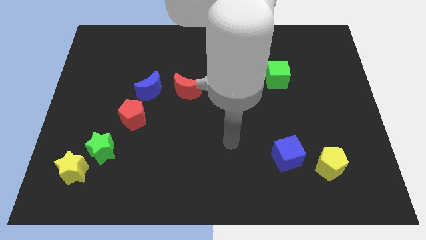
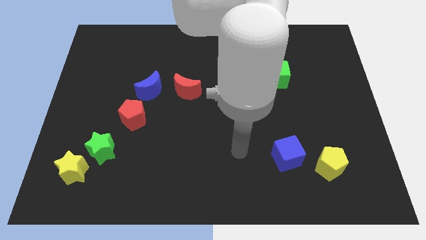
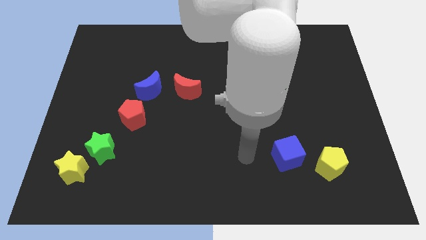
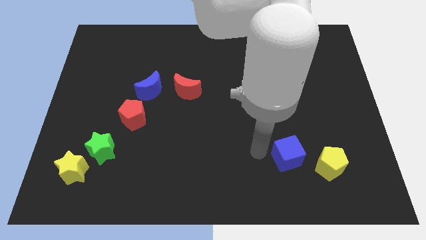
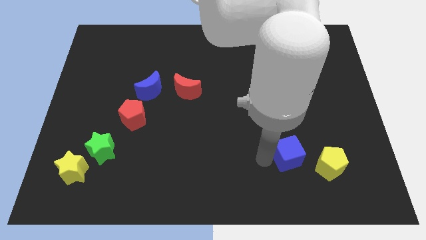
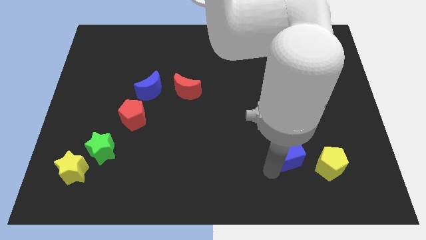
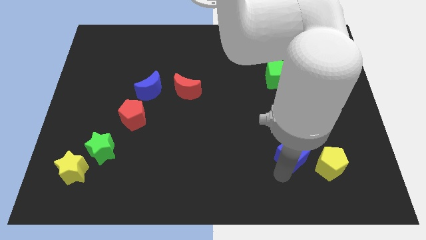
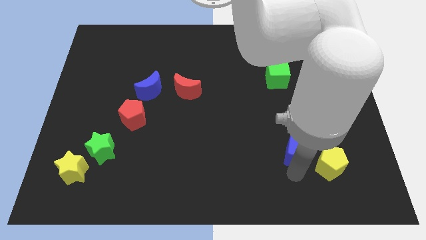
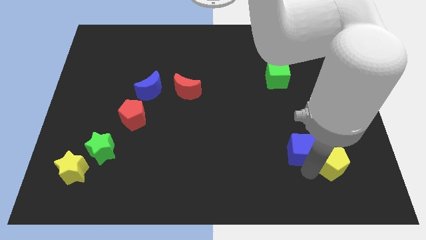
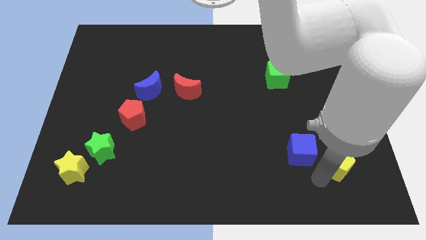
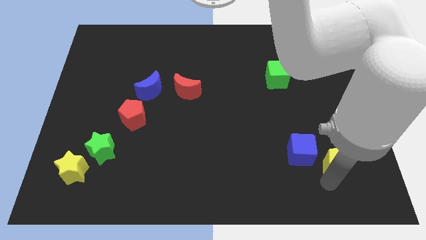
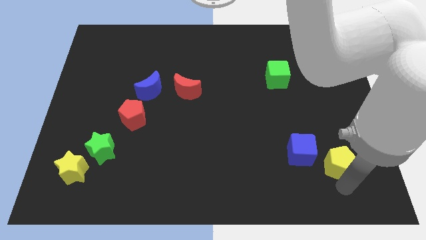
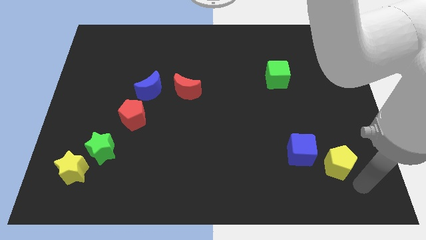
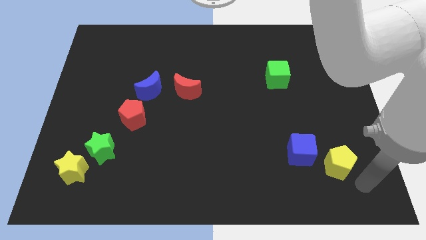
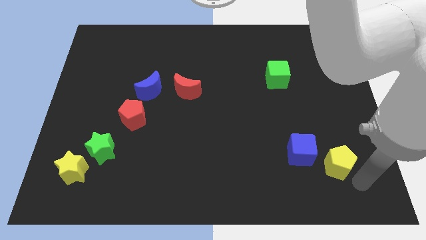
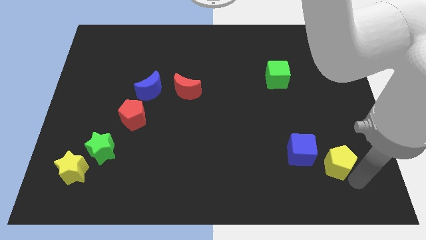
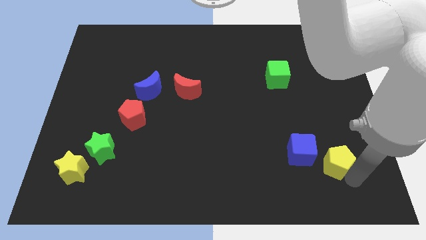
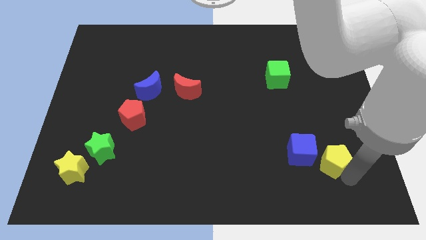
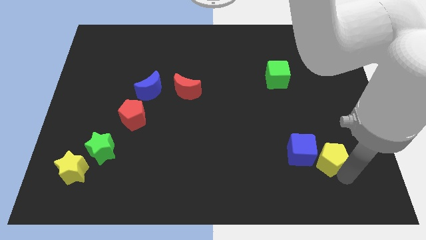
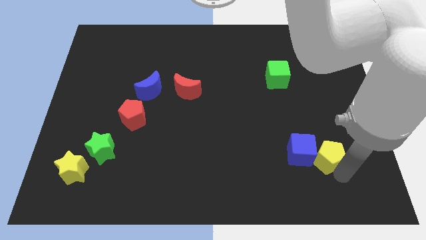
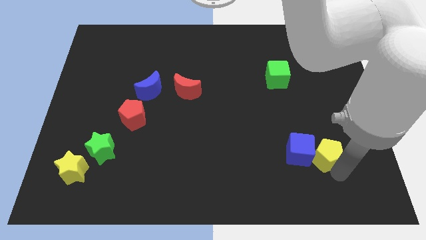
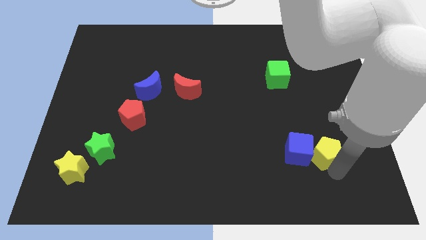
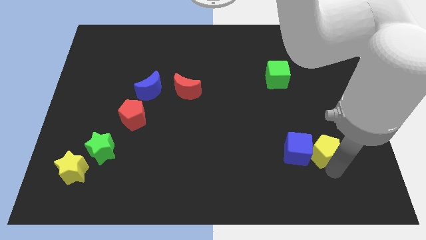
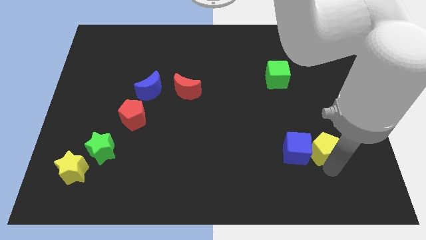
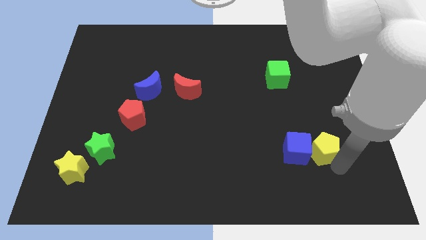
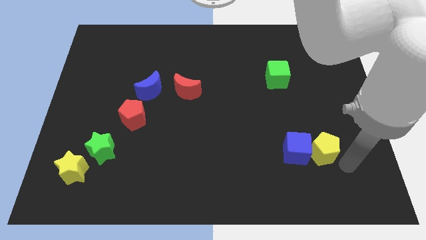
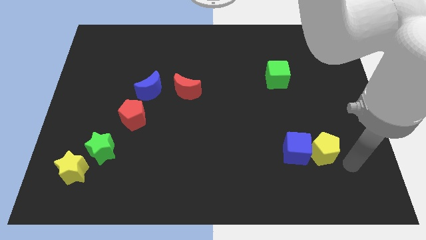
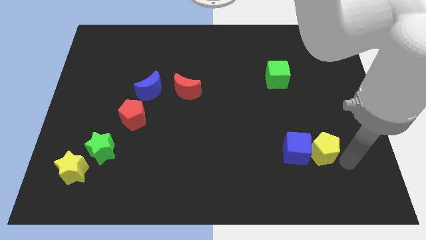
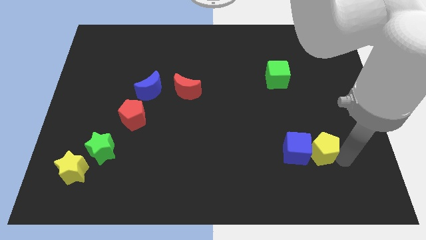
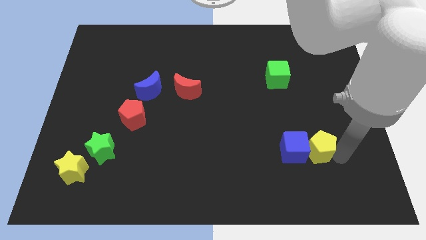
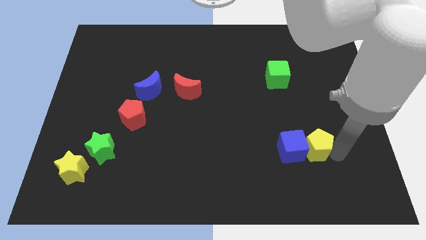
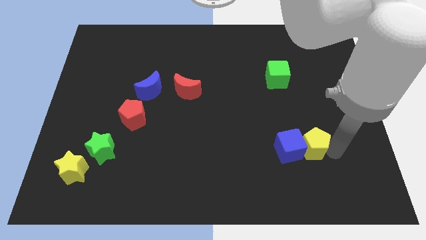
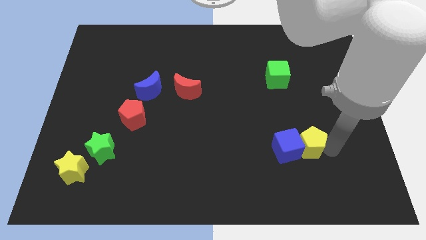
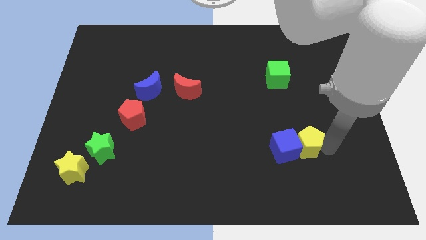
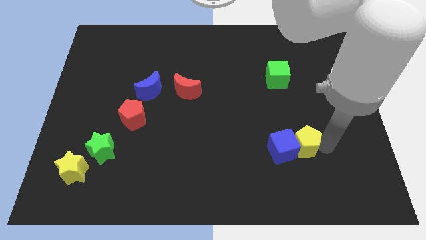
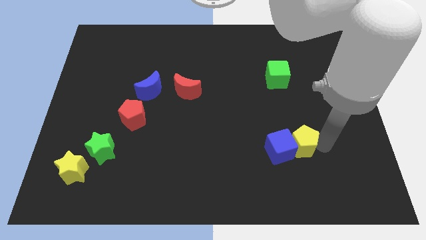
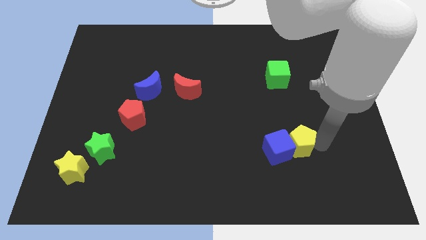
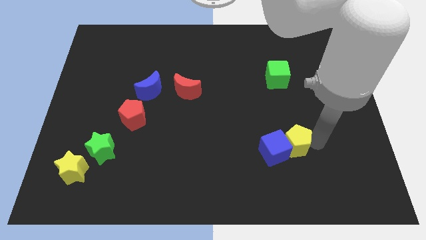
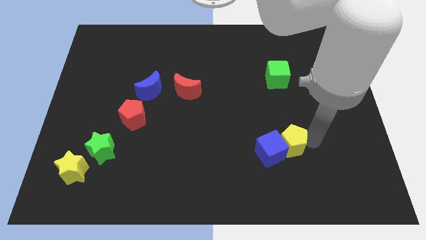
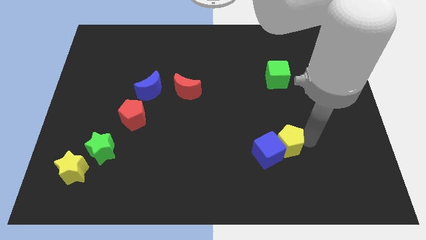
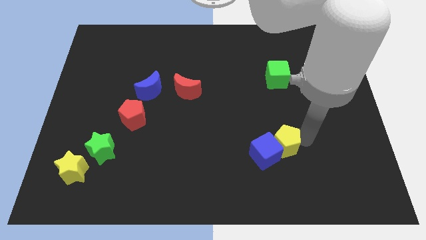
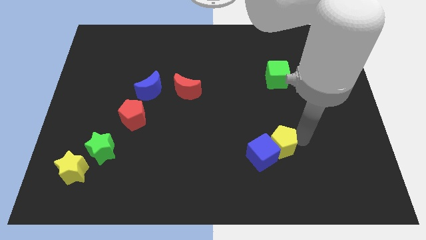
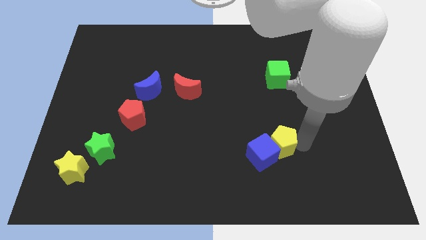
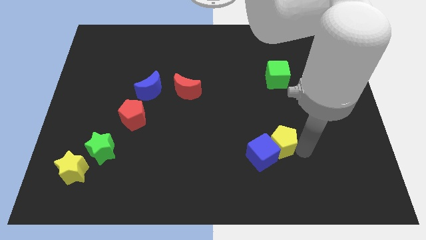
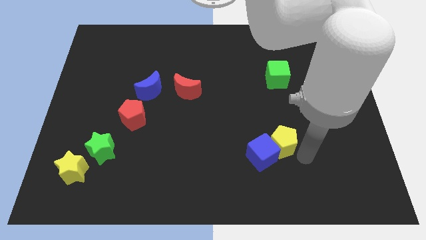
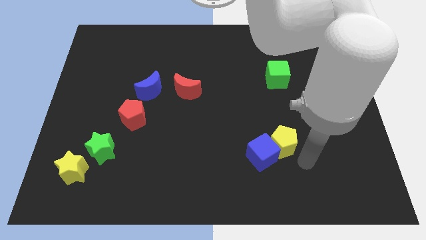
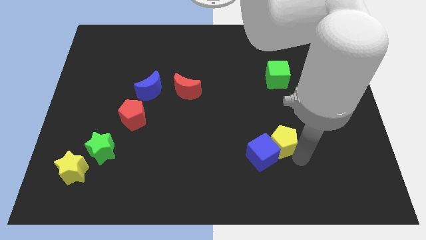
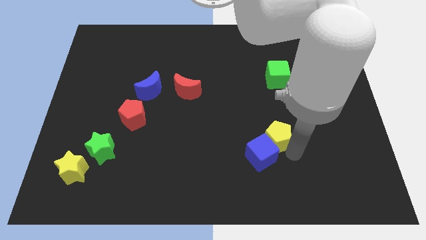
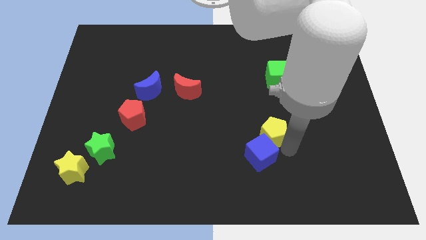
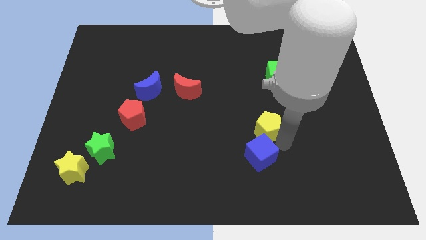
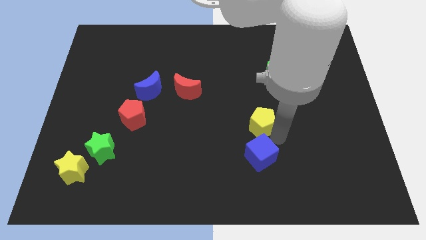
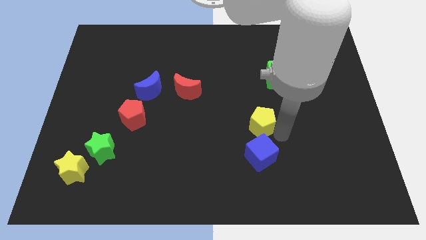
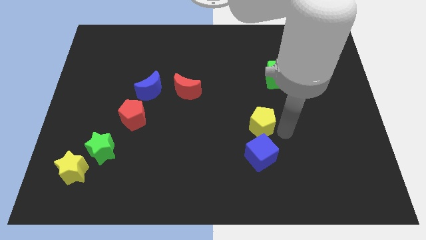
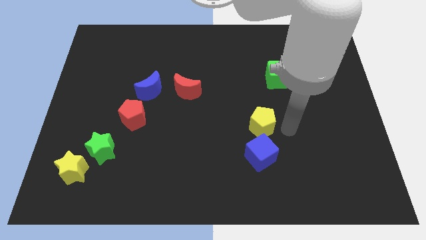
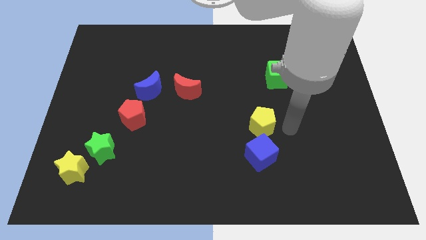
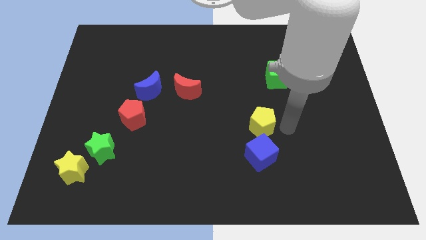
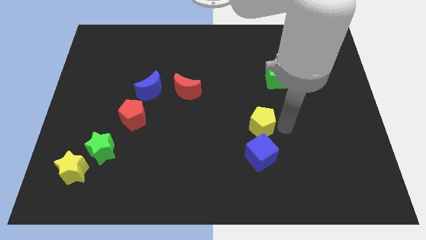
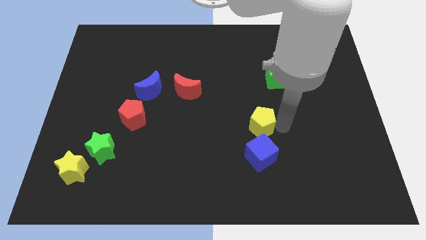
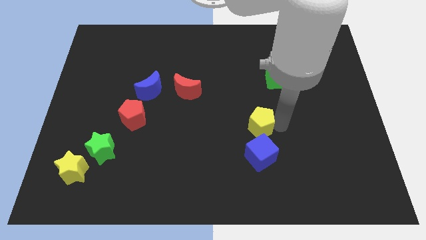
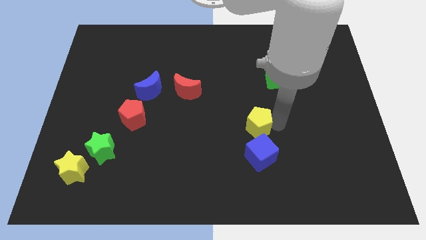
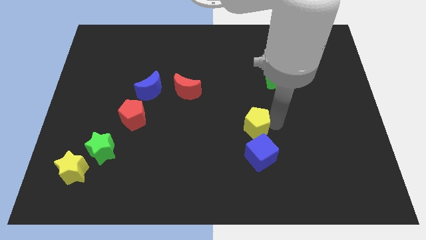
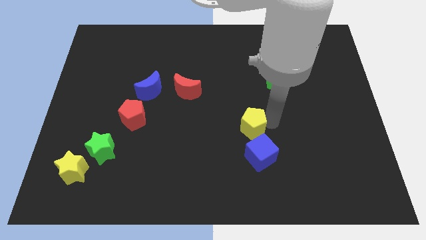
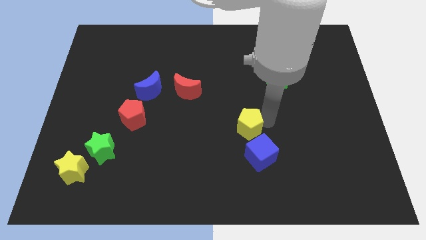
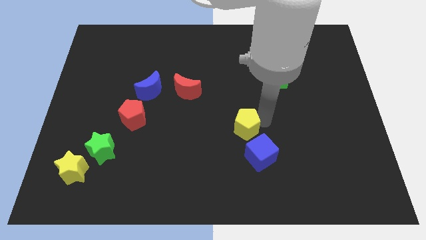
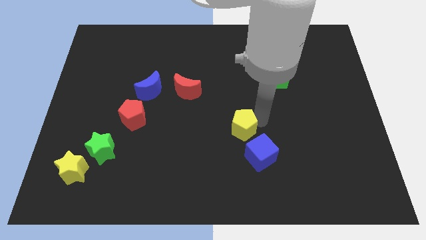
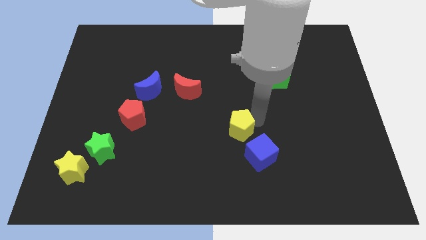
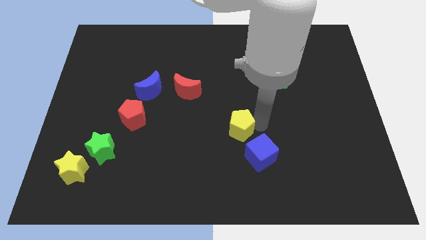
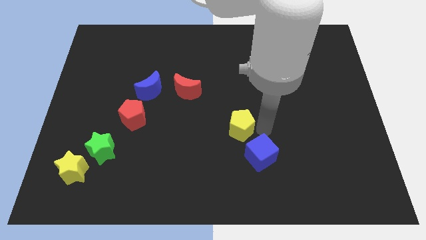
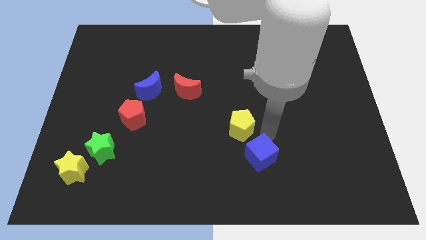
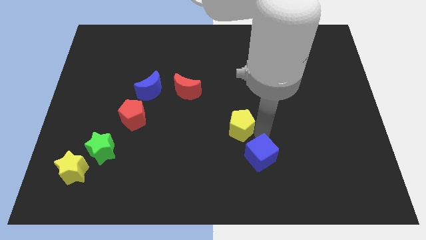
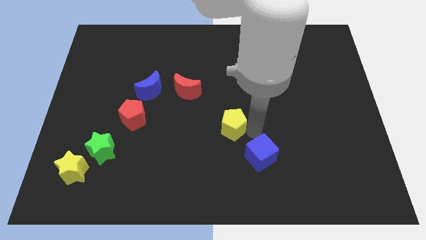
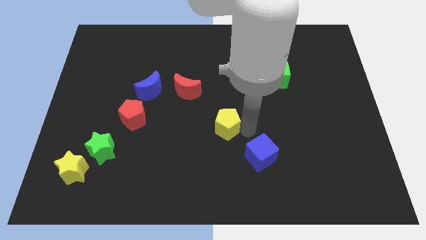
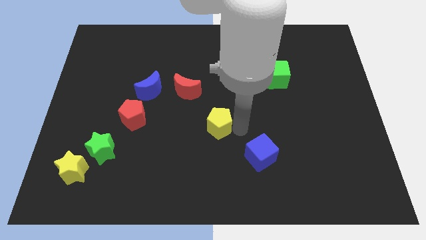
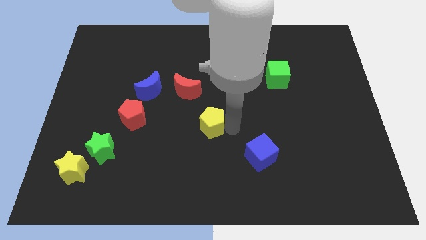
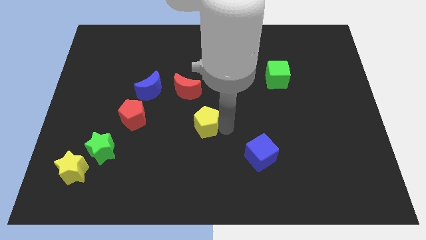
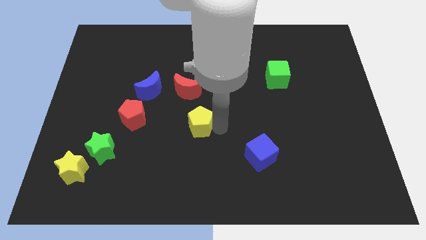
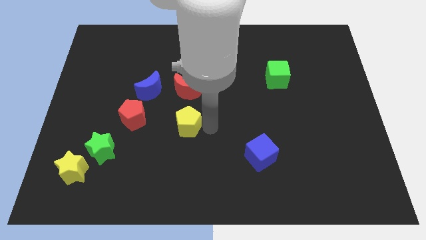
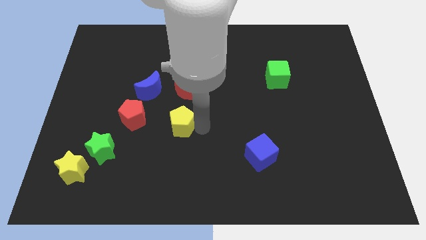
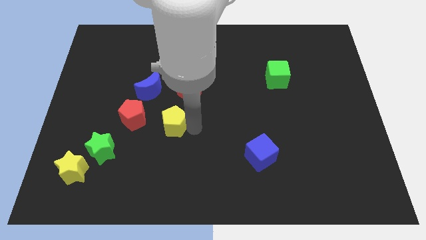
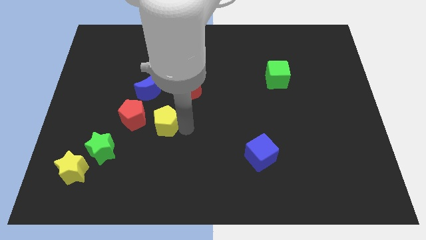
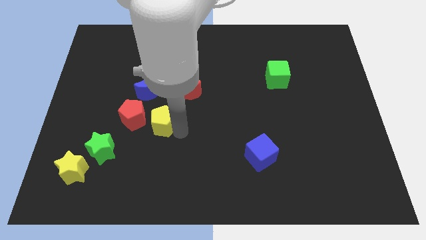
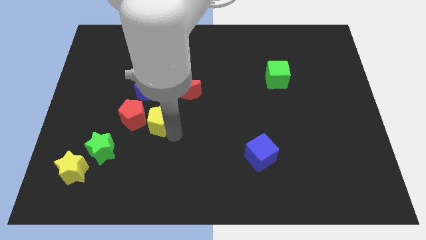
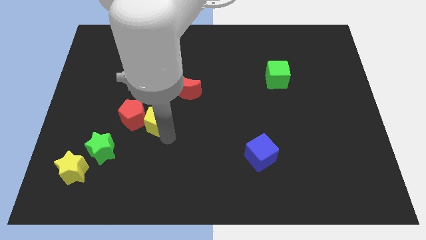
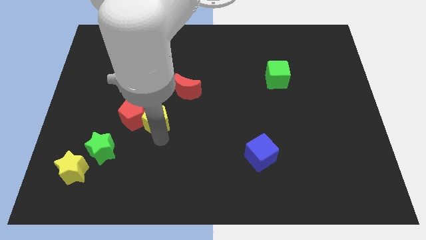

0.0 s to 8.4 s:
move the yellow pentagon to the top right of the red pentagon
